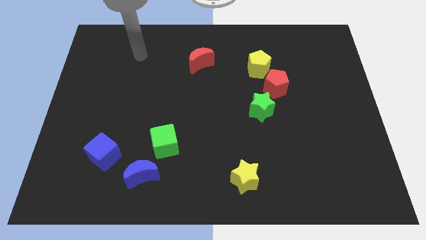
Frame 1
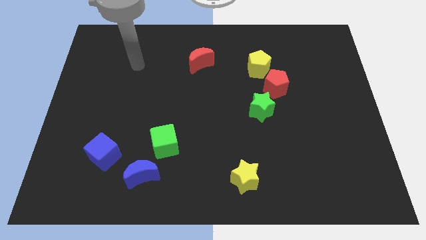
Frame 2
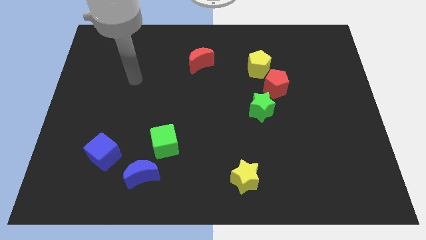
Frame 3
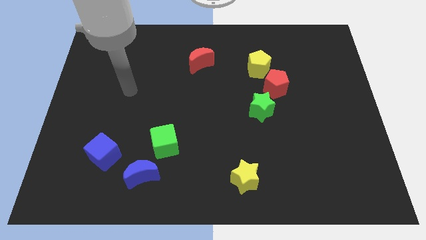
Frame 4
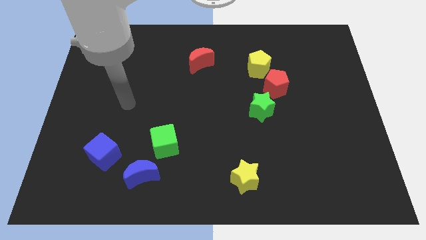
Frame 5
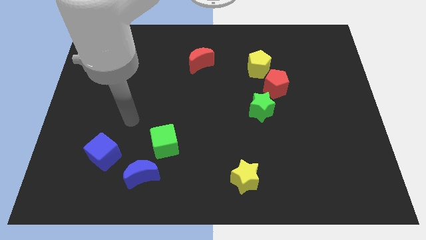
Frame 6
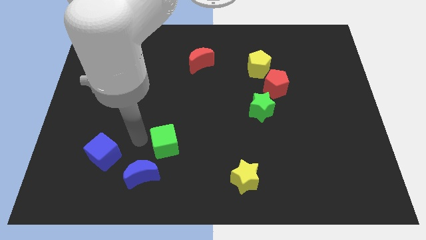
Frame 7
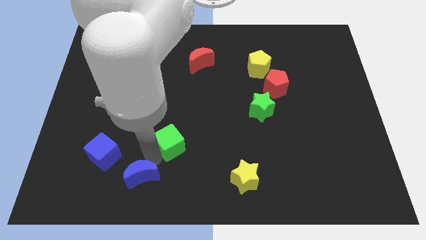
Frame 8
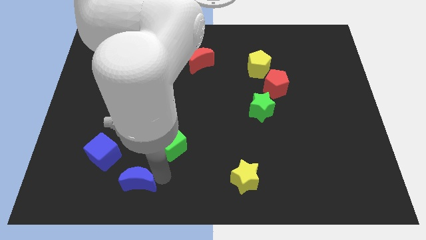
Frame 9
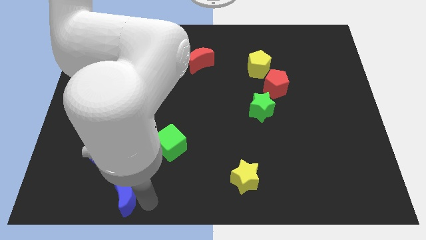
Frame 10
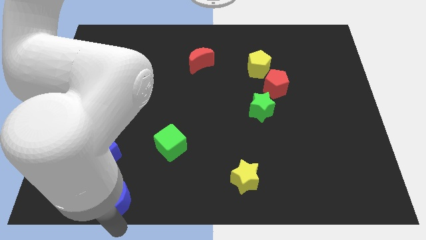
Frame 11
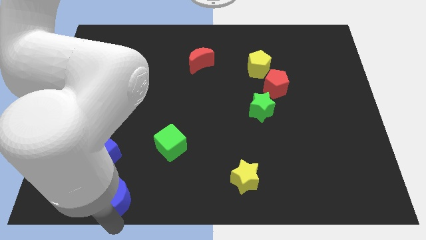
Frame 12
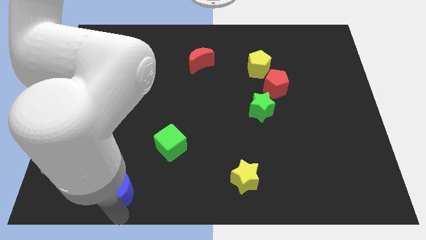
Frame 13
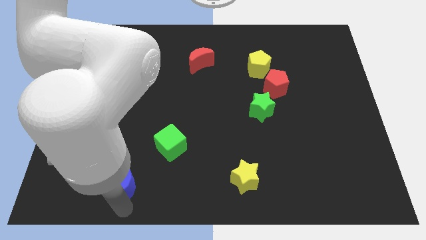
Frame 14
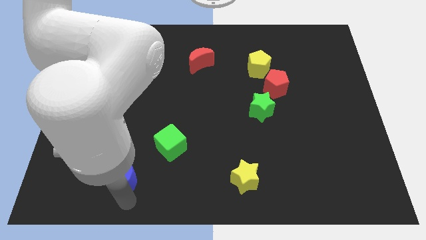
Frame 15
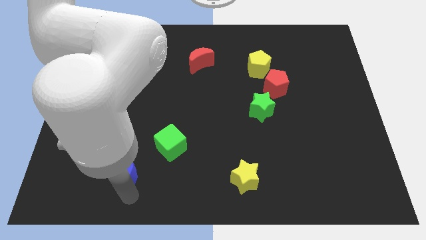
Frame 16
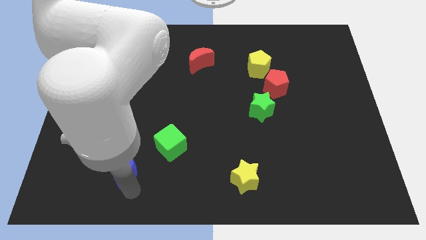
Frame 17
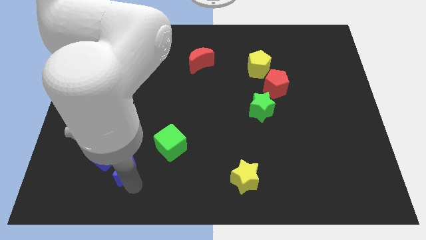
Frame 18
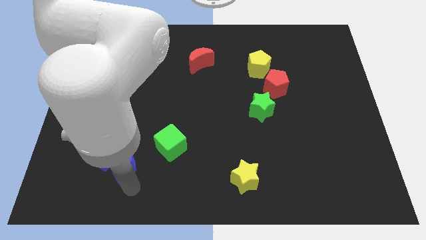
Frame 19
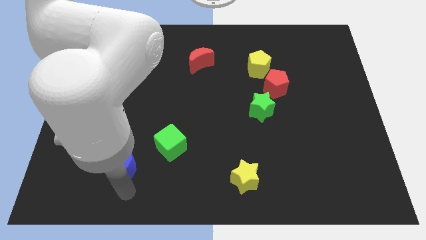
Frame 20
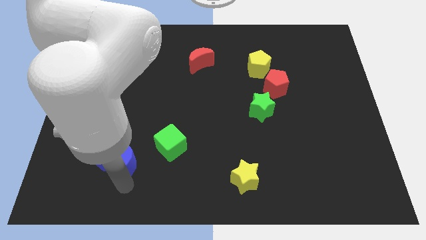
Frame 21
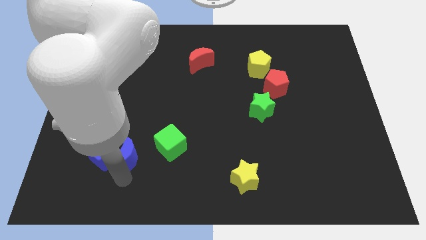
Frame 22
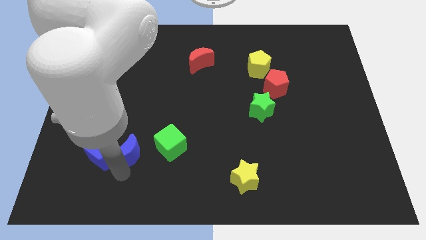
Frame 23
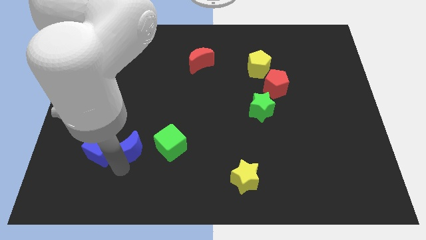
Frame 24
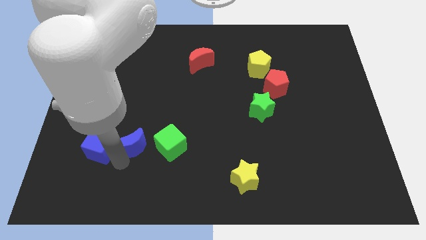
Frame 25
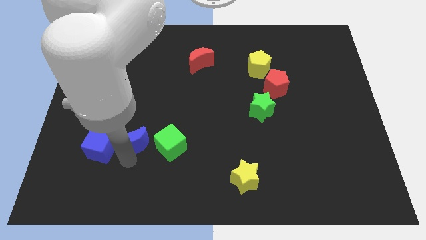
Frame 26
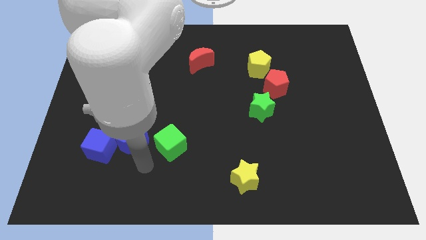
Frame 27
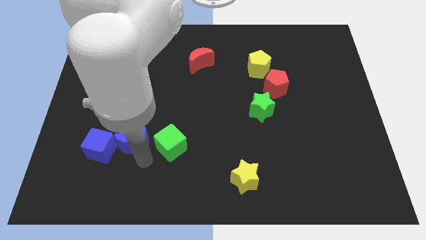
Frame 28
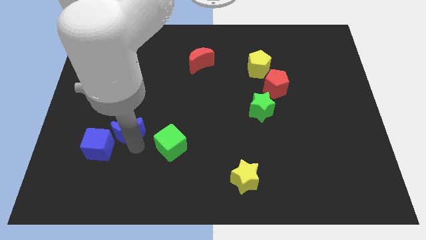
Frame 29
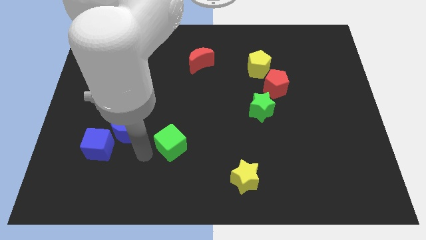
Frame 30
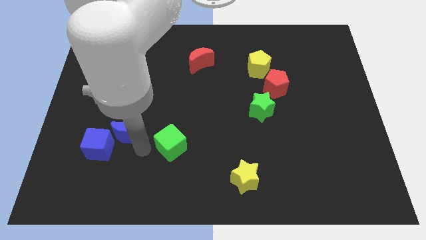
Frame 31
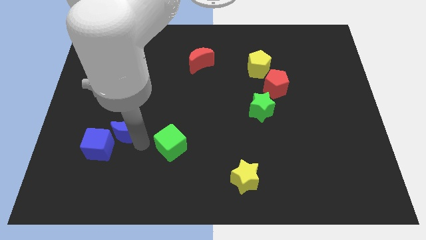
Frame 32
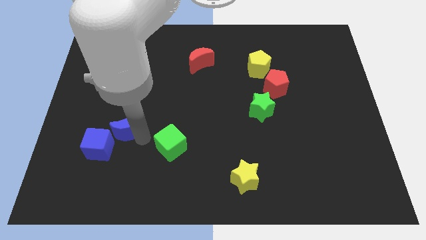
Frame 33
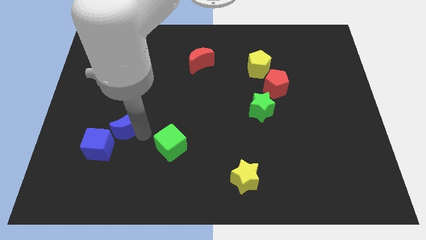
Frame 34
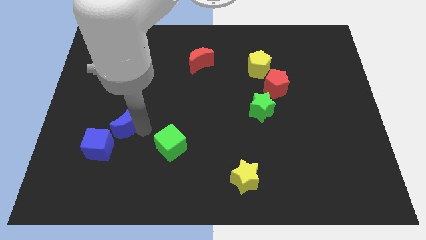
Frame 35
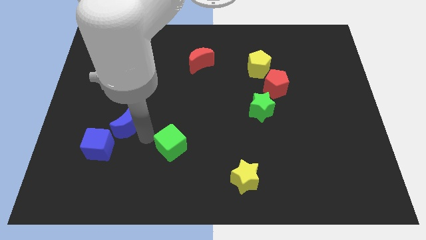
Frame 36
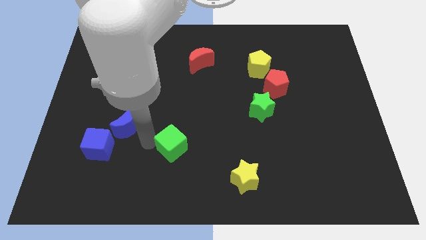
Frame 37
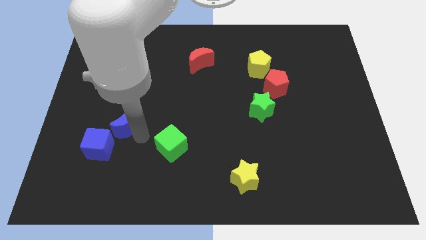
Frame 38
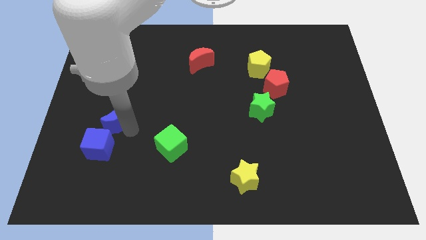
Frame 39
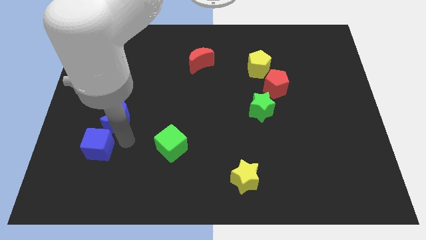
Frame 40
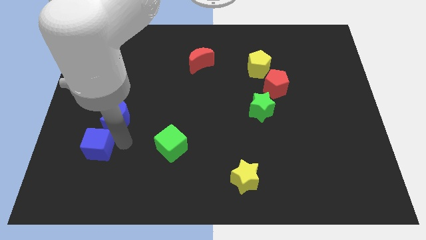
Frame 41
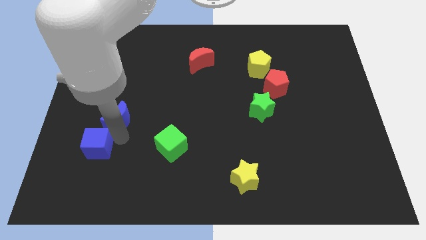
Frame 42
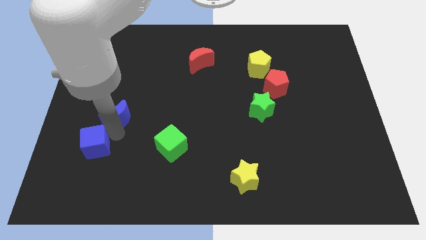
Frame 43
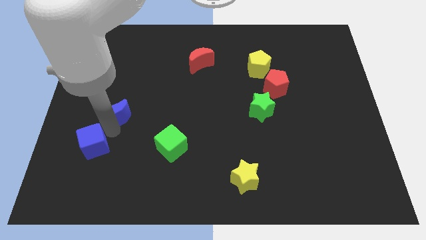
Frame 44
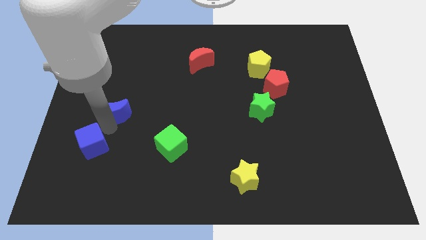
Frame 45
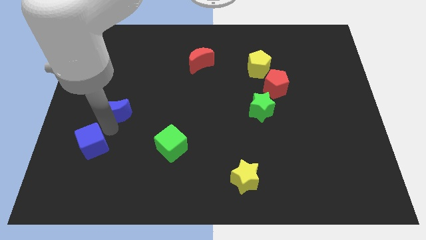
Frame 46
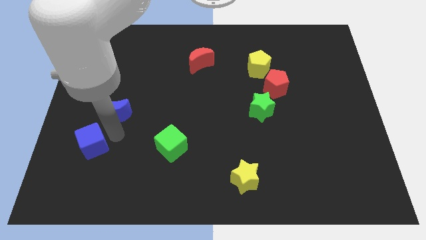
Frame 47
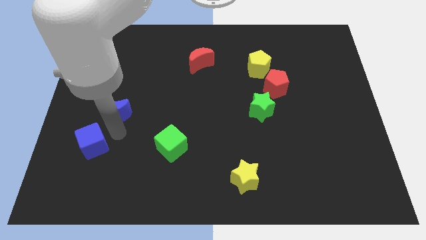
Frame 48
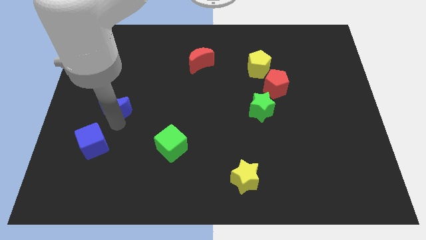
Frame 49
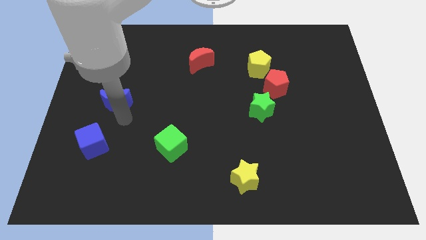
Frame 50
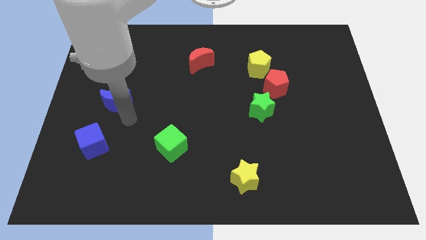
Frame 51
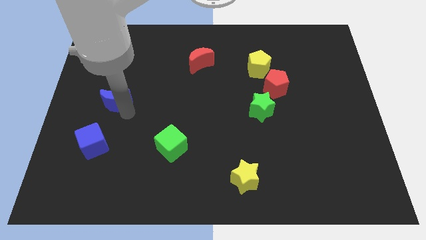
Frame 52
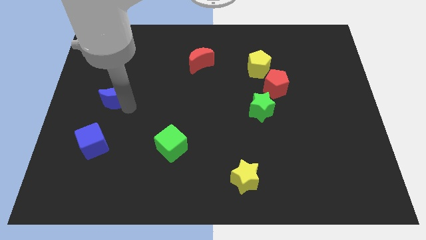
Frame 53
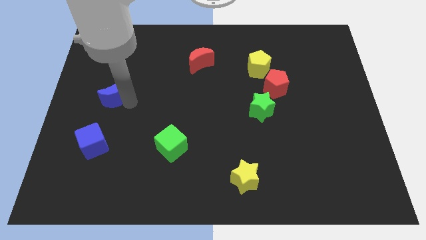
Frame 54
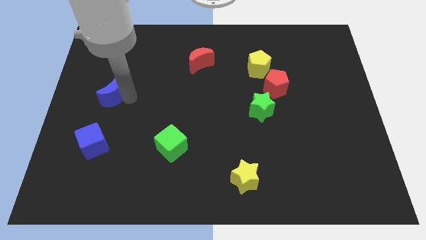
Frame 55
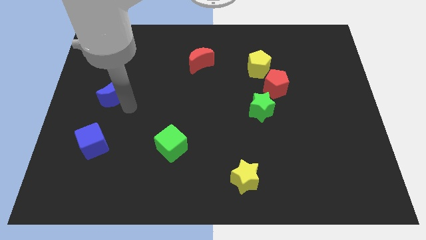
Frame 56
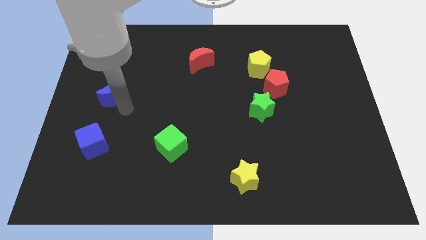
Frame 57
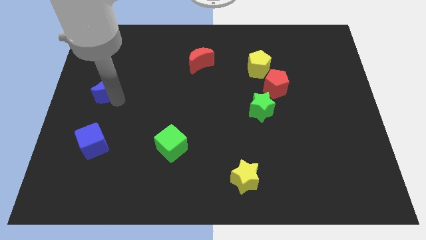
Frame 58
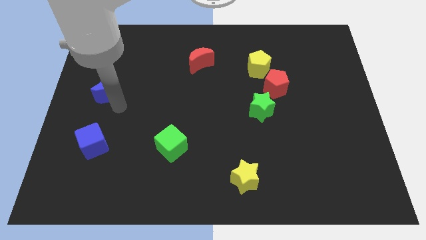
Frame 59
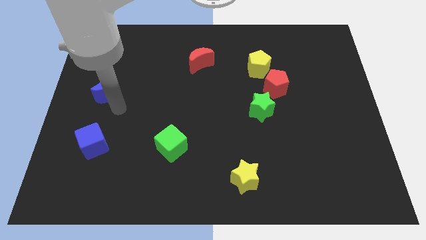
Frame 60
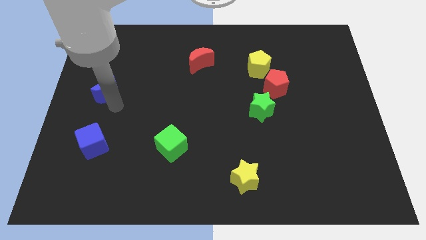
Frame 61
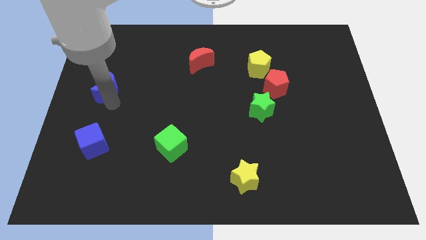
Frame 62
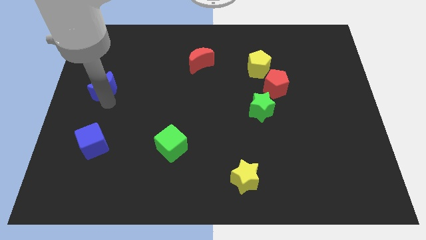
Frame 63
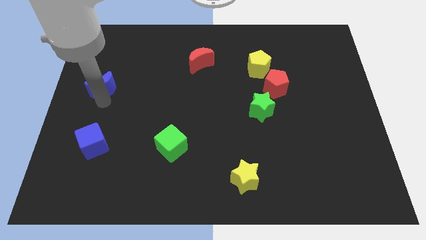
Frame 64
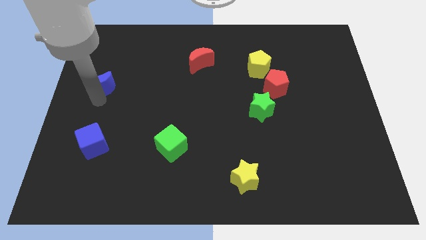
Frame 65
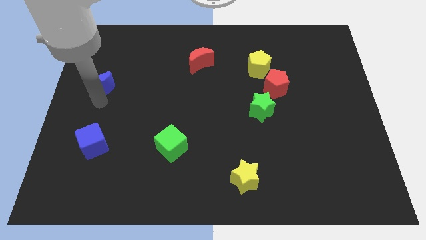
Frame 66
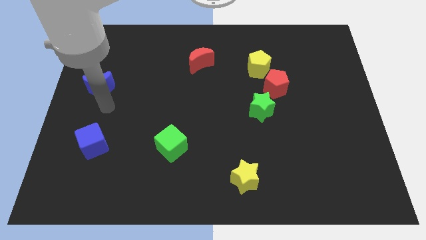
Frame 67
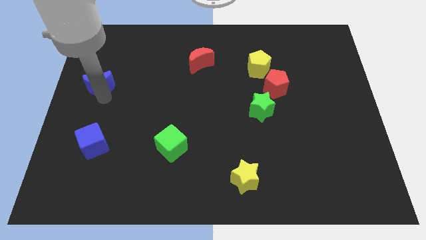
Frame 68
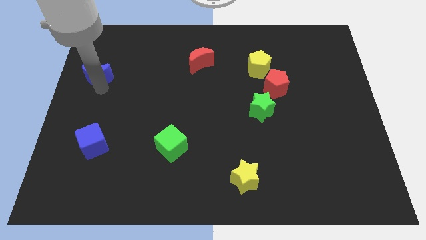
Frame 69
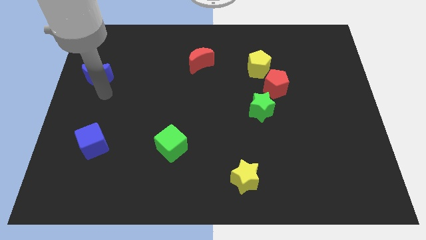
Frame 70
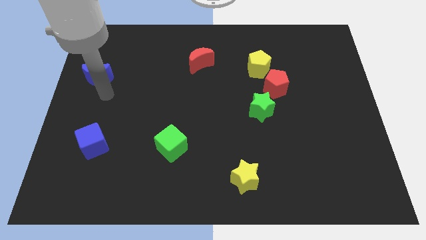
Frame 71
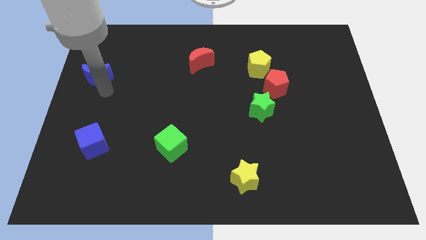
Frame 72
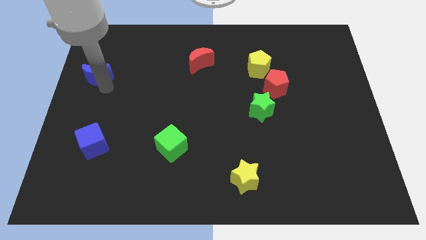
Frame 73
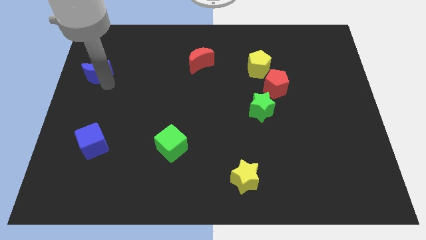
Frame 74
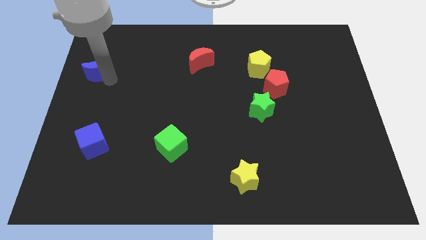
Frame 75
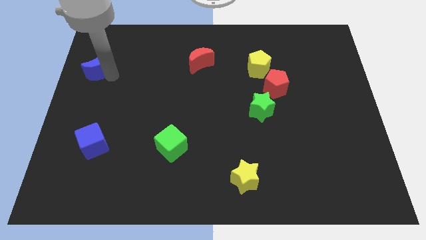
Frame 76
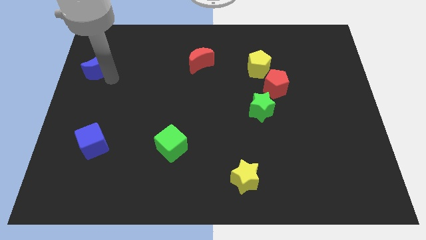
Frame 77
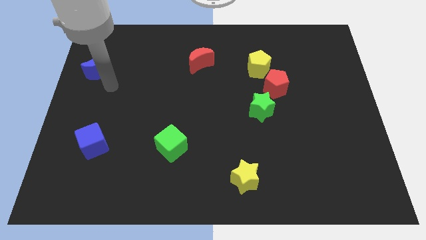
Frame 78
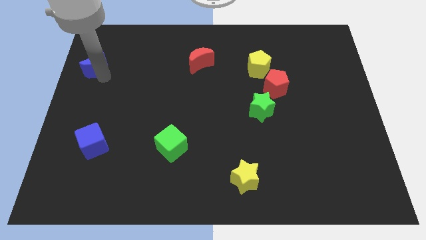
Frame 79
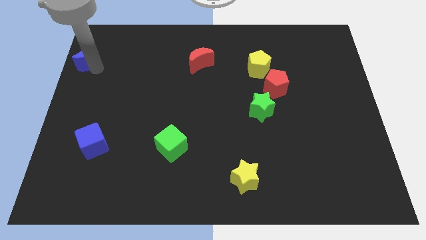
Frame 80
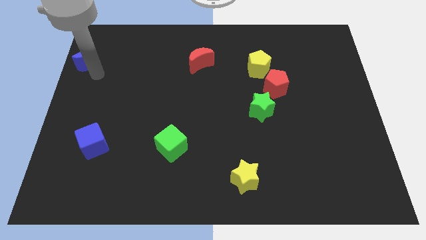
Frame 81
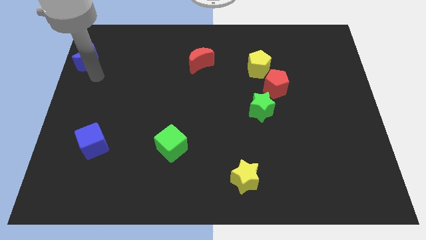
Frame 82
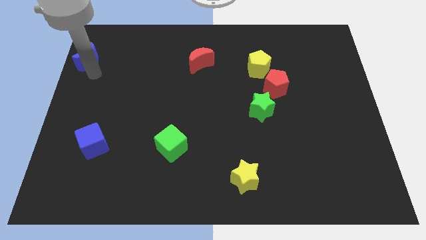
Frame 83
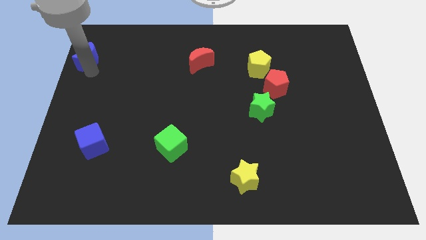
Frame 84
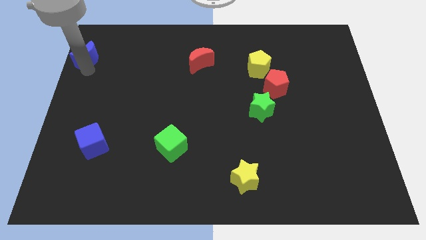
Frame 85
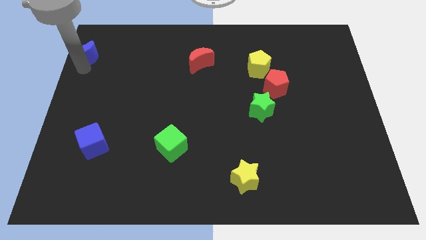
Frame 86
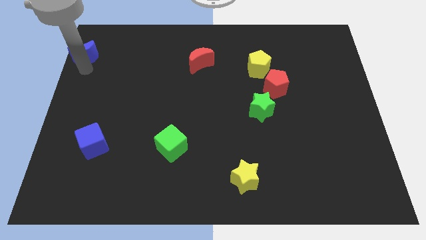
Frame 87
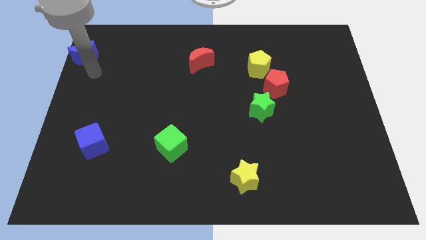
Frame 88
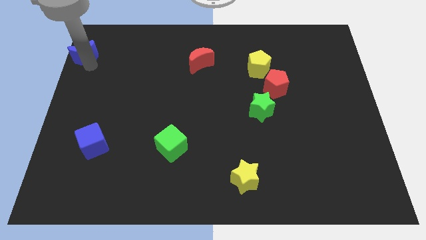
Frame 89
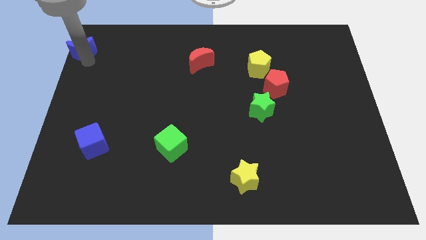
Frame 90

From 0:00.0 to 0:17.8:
move the blue moon to the top left of the board
